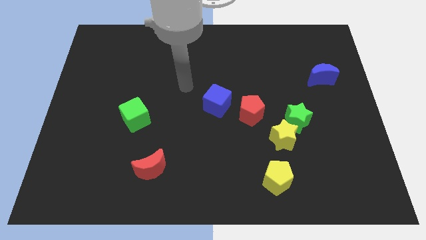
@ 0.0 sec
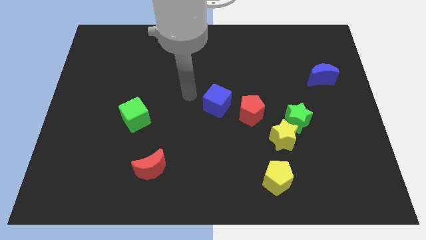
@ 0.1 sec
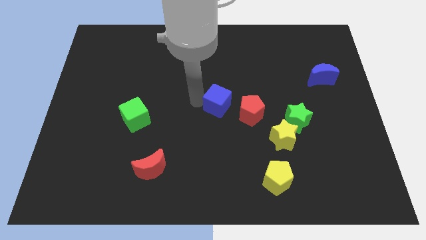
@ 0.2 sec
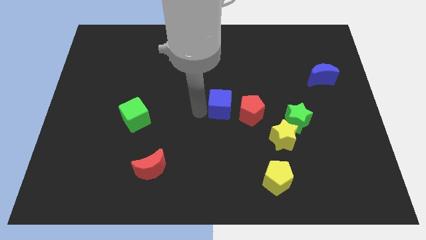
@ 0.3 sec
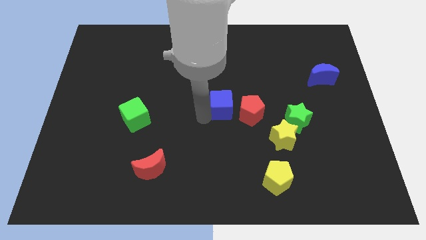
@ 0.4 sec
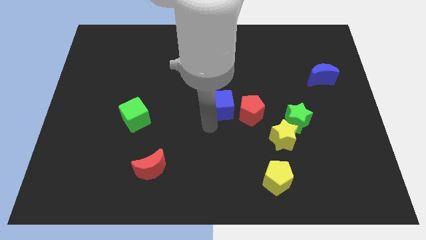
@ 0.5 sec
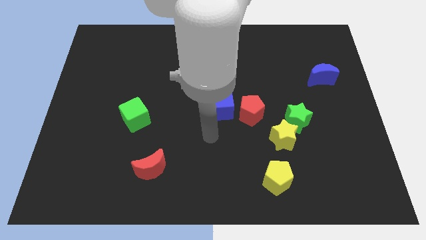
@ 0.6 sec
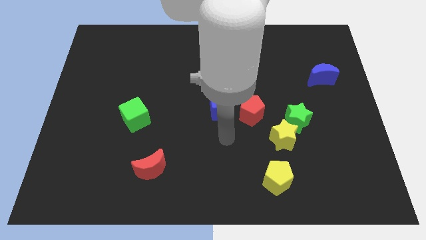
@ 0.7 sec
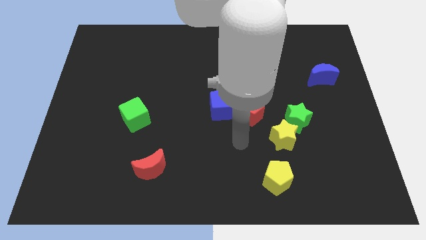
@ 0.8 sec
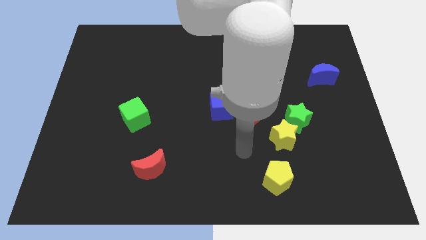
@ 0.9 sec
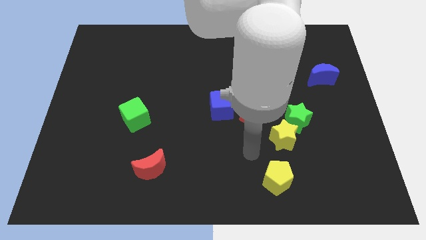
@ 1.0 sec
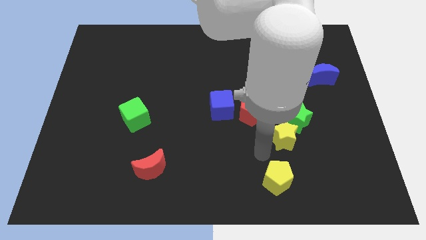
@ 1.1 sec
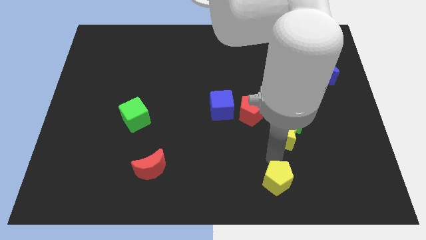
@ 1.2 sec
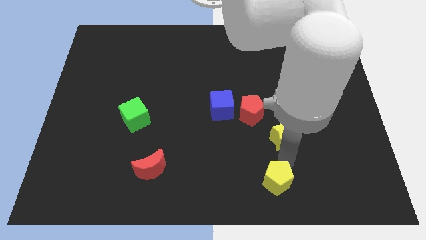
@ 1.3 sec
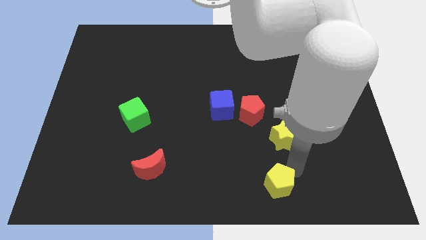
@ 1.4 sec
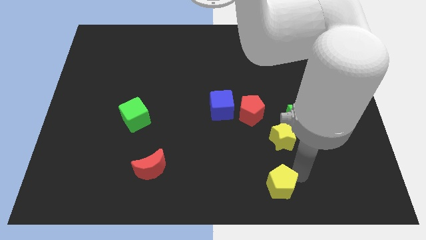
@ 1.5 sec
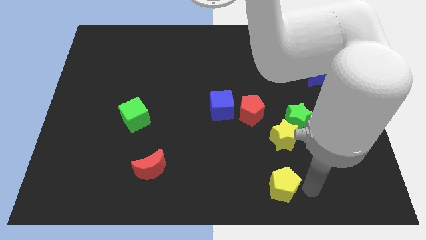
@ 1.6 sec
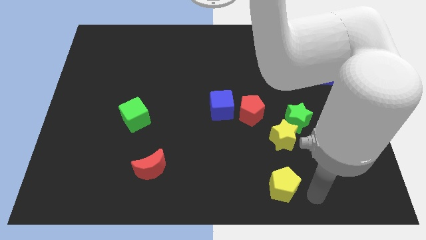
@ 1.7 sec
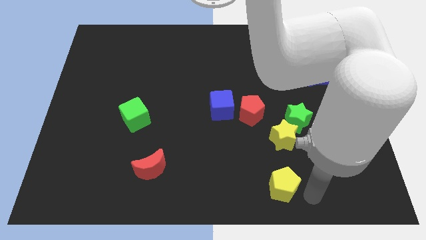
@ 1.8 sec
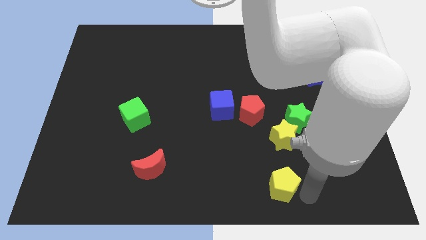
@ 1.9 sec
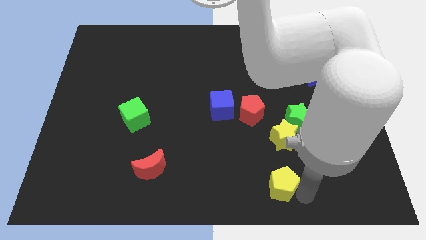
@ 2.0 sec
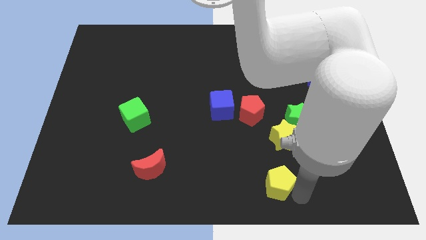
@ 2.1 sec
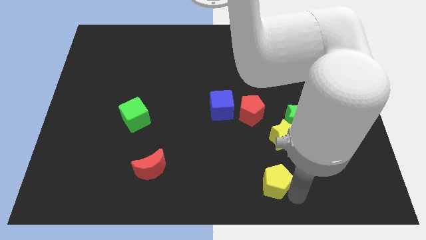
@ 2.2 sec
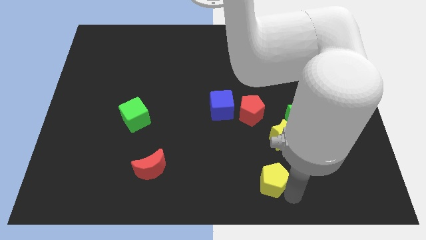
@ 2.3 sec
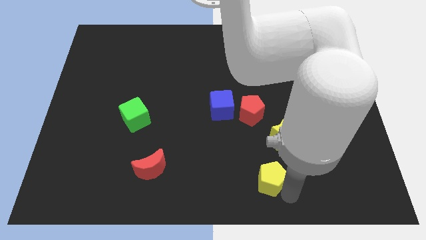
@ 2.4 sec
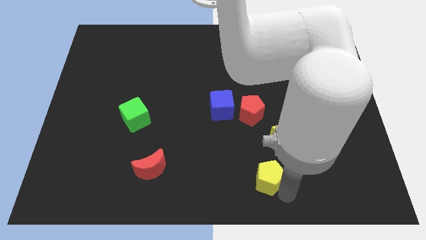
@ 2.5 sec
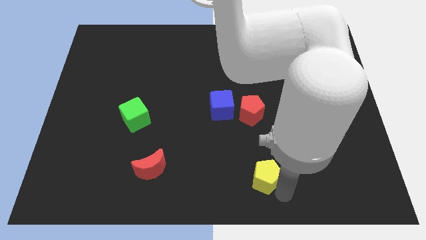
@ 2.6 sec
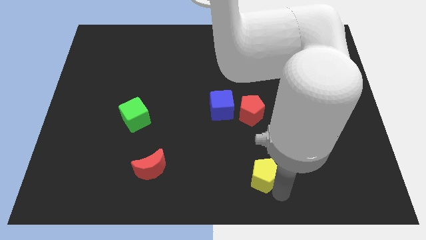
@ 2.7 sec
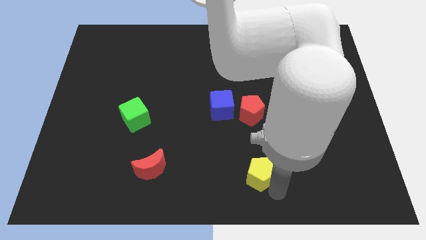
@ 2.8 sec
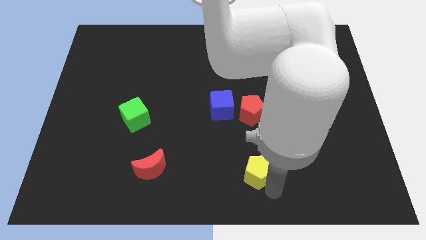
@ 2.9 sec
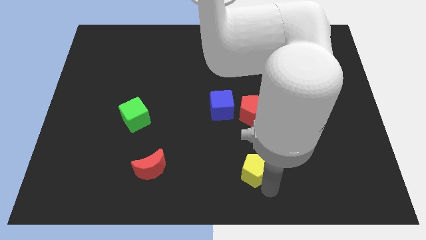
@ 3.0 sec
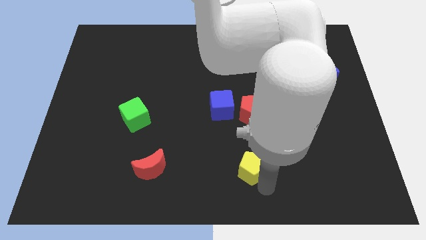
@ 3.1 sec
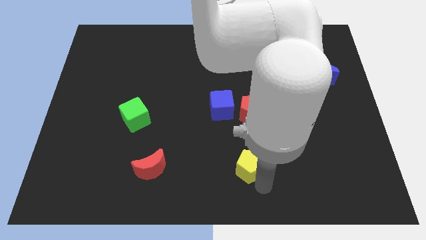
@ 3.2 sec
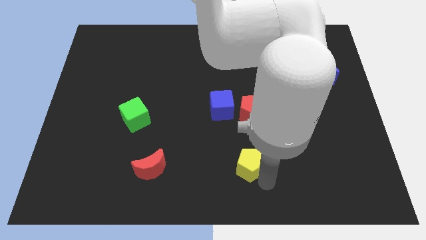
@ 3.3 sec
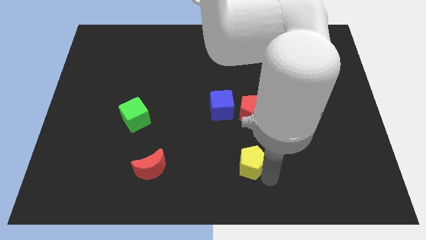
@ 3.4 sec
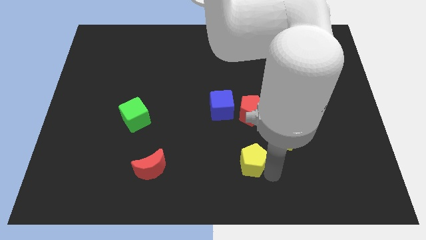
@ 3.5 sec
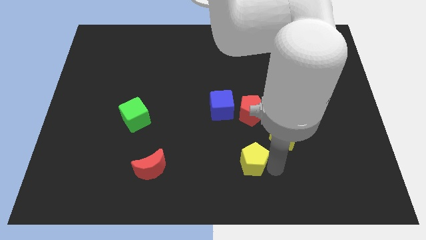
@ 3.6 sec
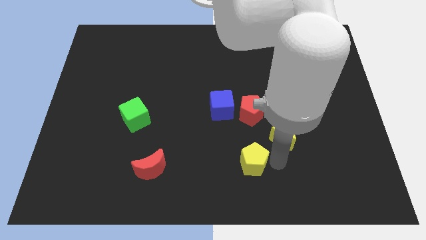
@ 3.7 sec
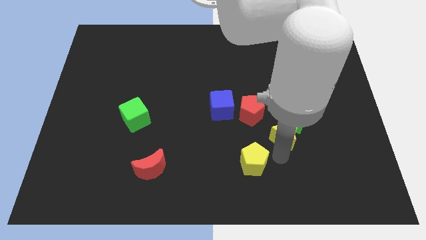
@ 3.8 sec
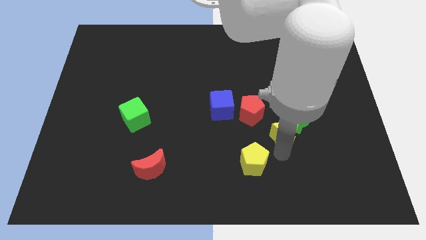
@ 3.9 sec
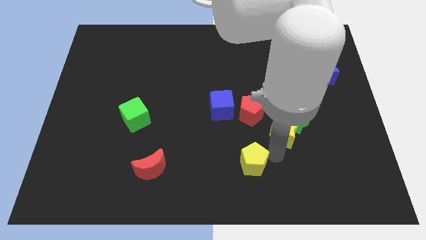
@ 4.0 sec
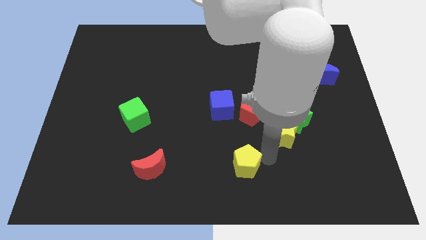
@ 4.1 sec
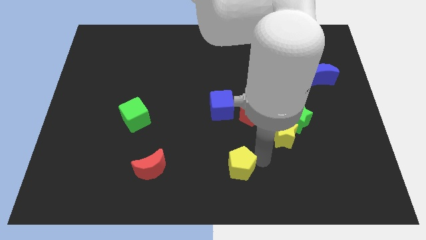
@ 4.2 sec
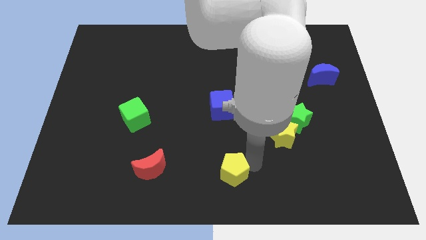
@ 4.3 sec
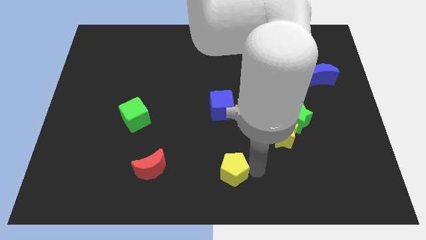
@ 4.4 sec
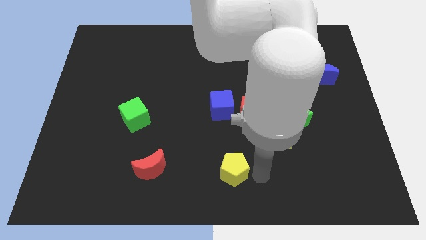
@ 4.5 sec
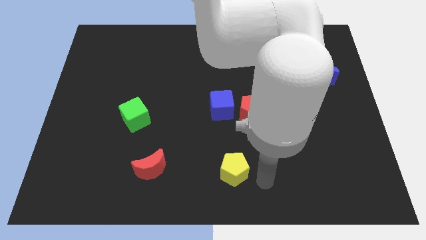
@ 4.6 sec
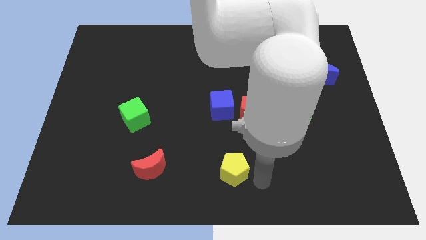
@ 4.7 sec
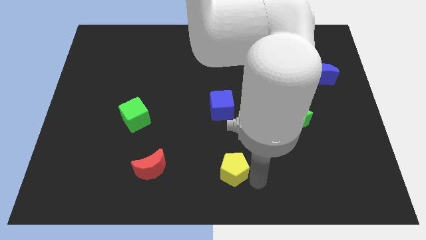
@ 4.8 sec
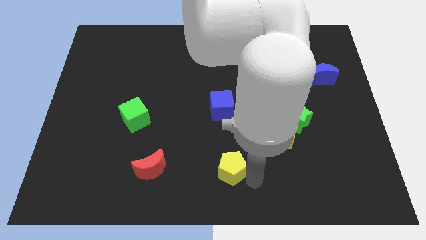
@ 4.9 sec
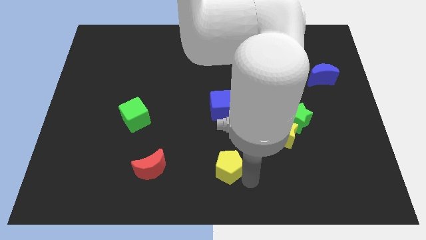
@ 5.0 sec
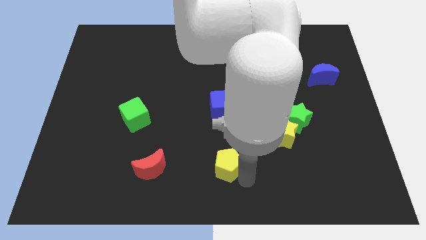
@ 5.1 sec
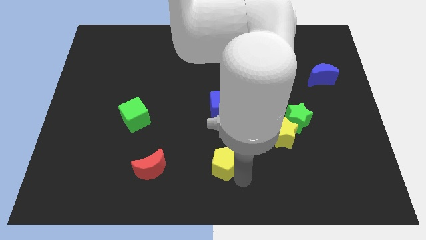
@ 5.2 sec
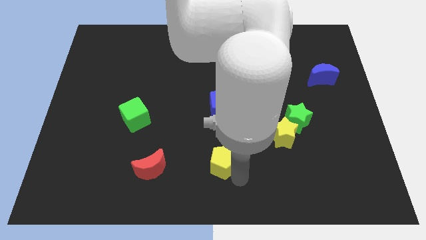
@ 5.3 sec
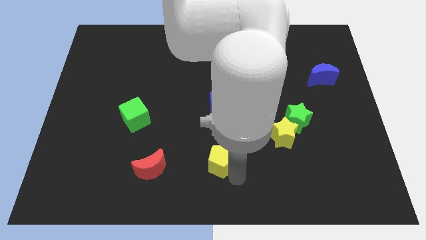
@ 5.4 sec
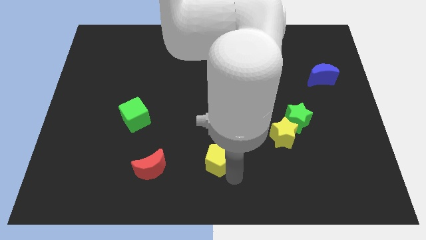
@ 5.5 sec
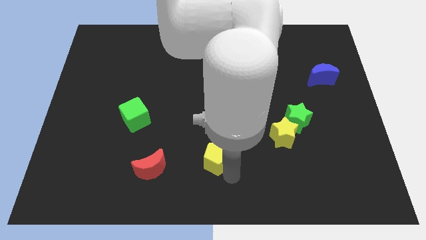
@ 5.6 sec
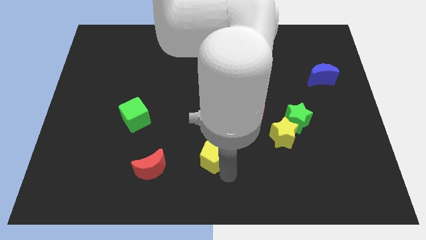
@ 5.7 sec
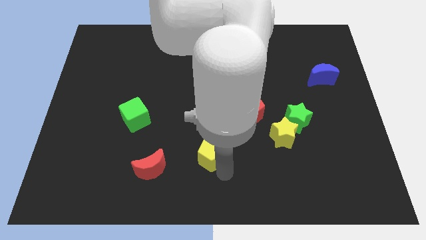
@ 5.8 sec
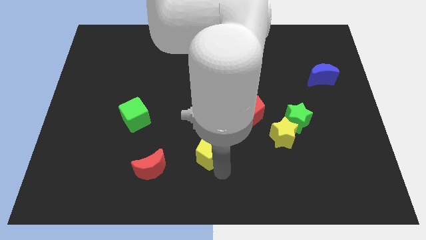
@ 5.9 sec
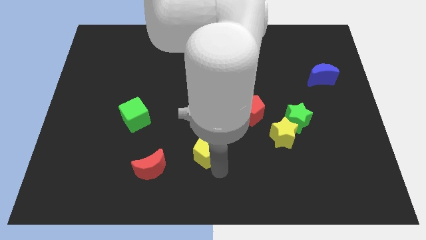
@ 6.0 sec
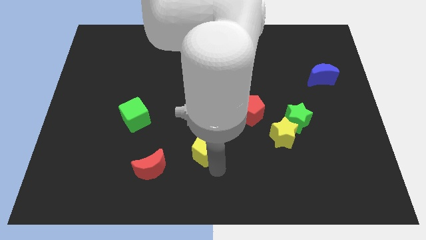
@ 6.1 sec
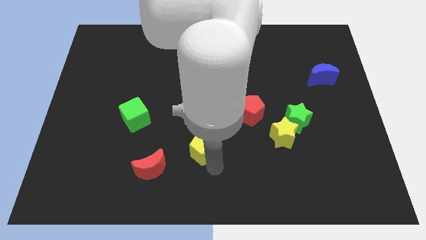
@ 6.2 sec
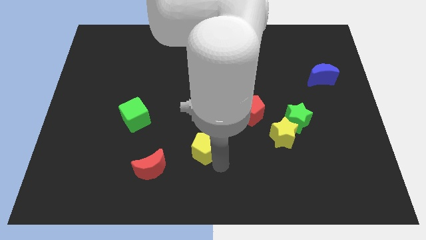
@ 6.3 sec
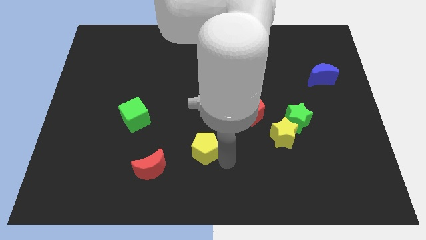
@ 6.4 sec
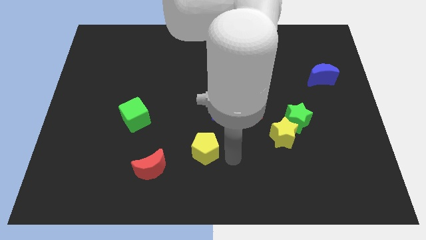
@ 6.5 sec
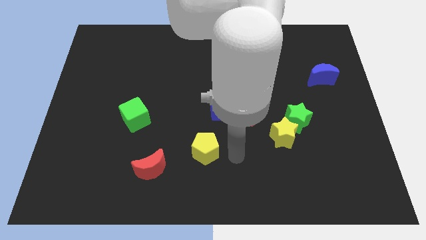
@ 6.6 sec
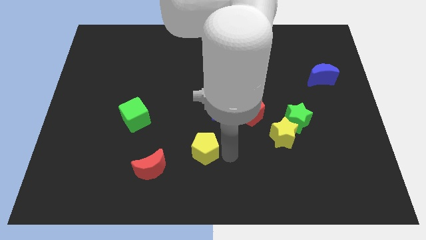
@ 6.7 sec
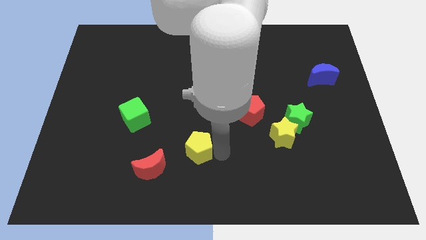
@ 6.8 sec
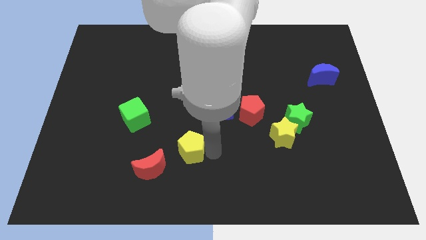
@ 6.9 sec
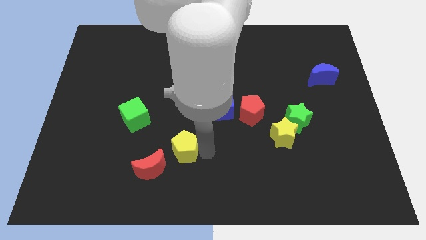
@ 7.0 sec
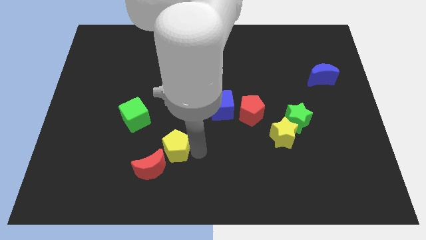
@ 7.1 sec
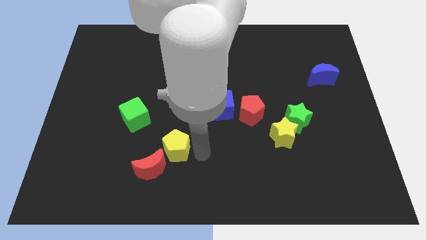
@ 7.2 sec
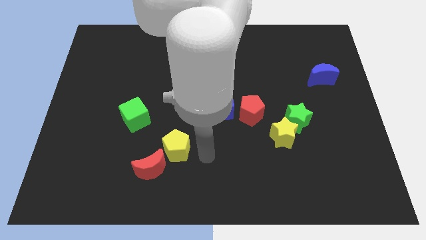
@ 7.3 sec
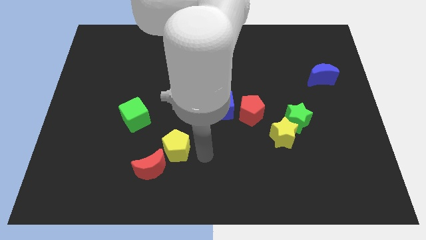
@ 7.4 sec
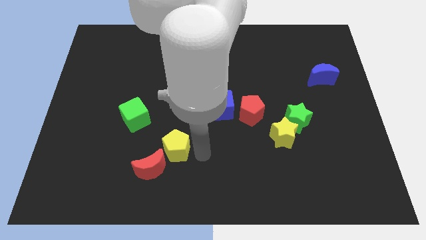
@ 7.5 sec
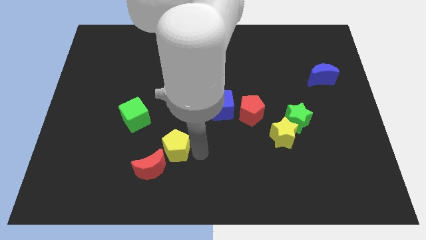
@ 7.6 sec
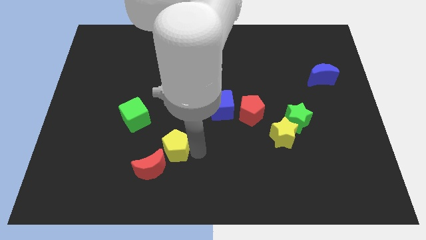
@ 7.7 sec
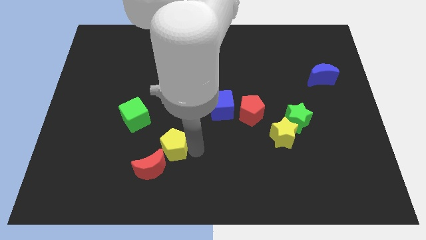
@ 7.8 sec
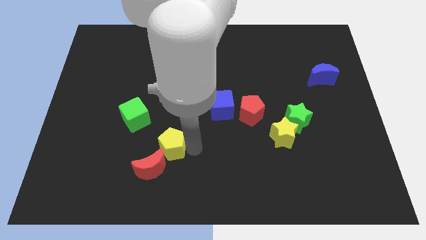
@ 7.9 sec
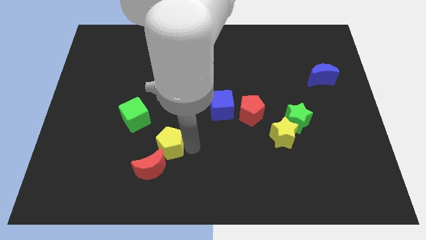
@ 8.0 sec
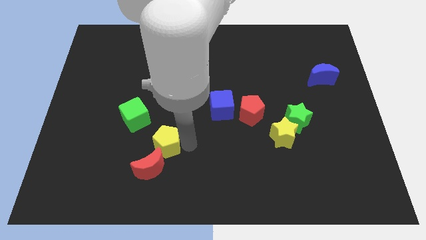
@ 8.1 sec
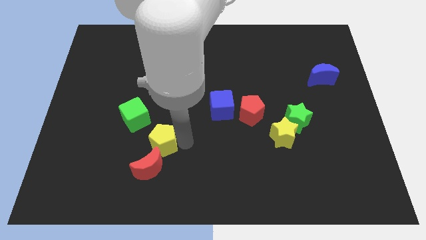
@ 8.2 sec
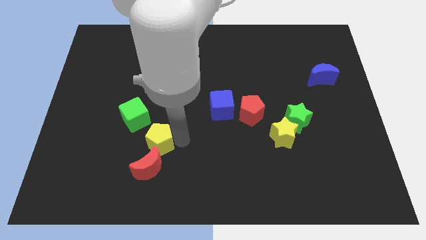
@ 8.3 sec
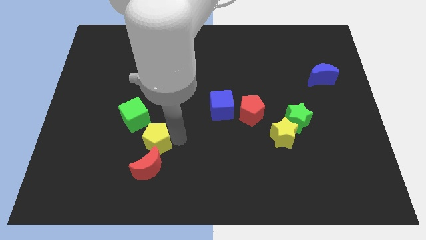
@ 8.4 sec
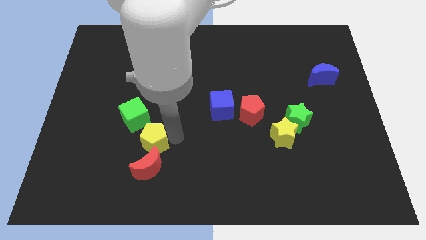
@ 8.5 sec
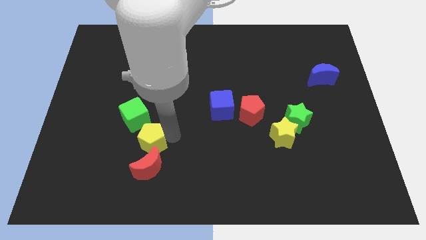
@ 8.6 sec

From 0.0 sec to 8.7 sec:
move the yellow pentagon below the green cube
